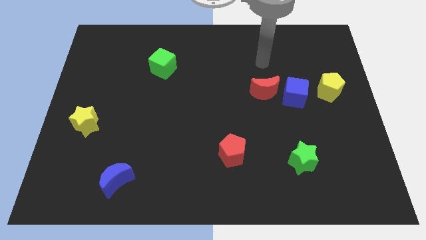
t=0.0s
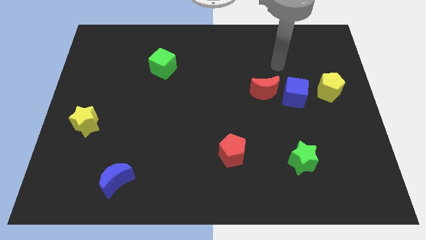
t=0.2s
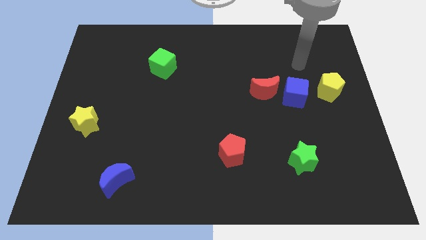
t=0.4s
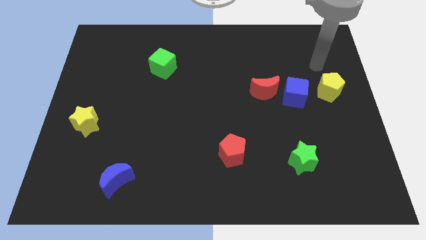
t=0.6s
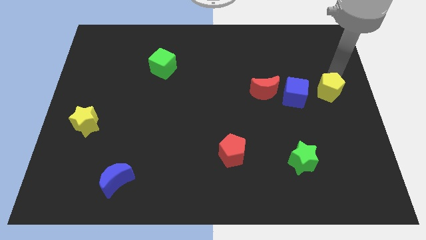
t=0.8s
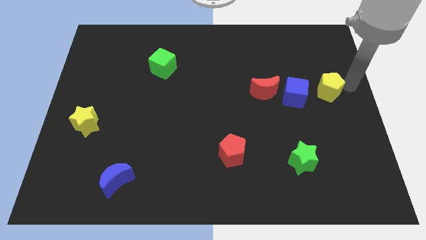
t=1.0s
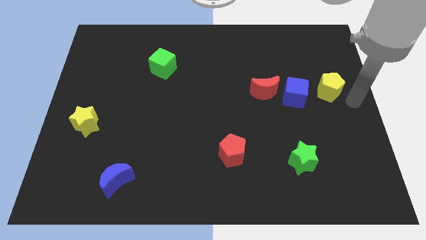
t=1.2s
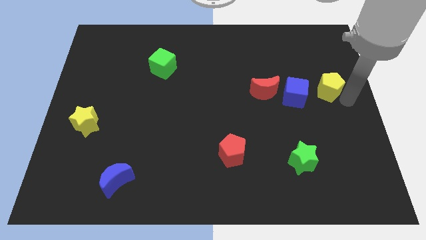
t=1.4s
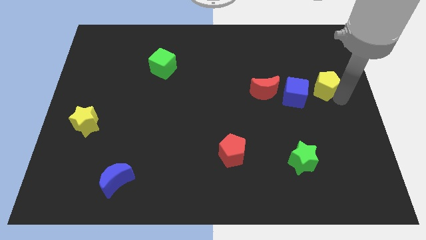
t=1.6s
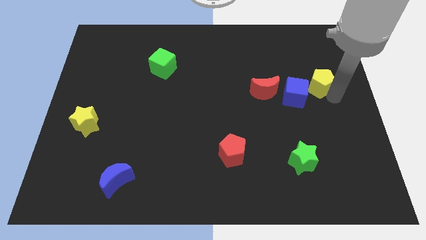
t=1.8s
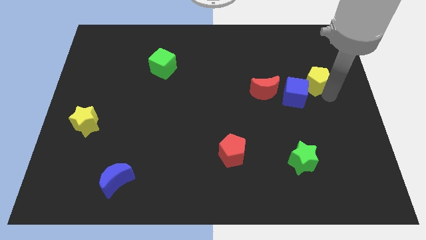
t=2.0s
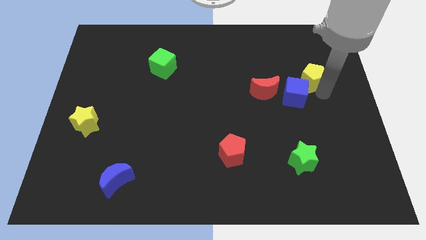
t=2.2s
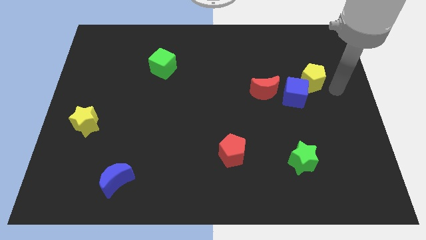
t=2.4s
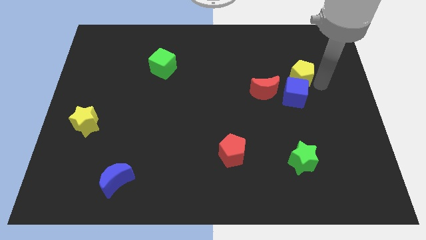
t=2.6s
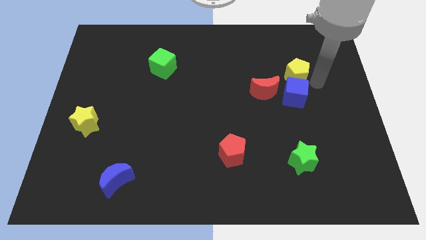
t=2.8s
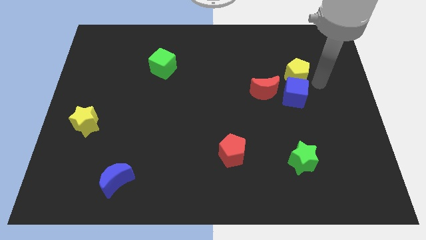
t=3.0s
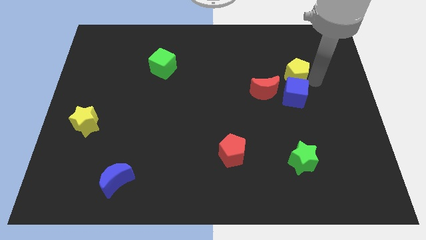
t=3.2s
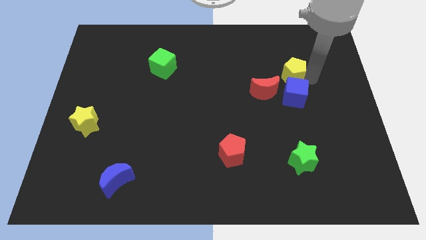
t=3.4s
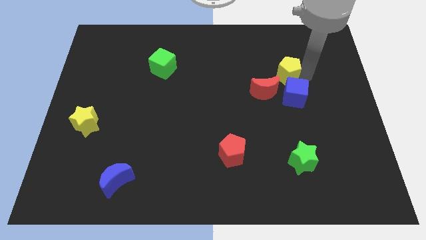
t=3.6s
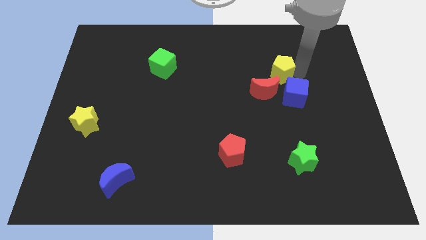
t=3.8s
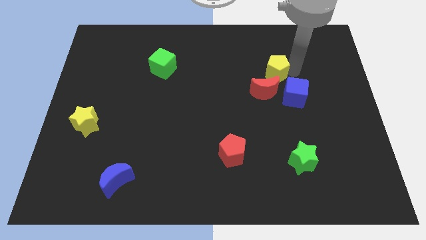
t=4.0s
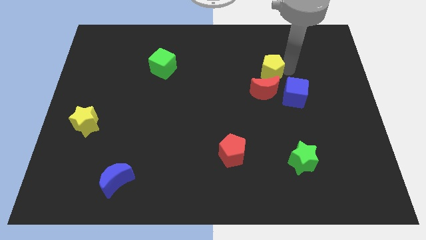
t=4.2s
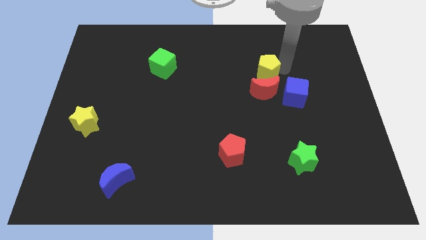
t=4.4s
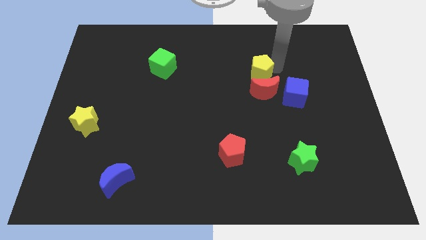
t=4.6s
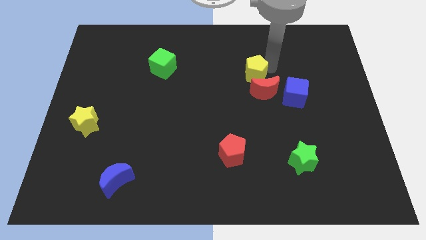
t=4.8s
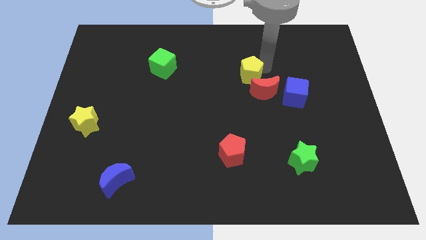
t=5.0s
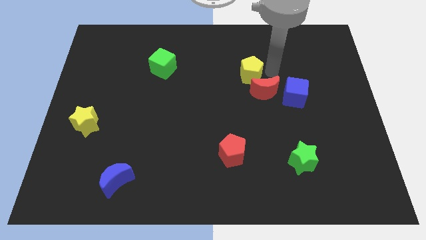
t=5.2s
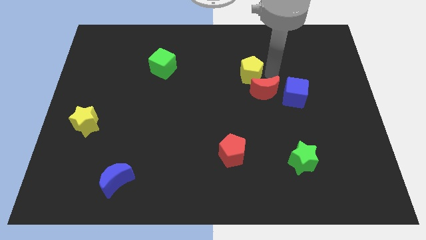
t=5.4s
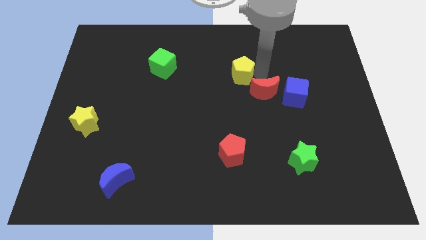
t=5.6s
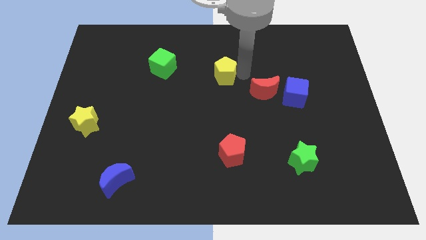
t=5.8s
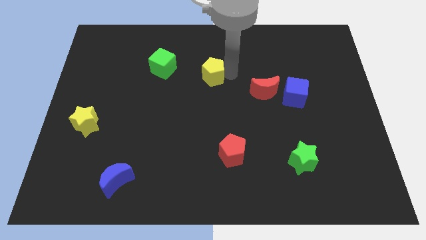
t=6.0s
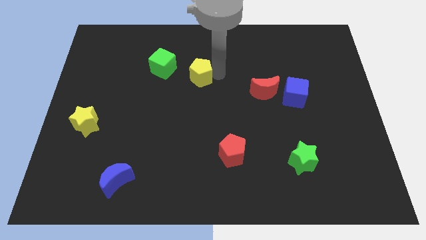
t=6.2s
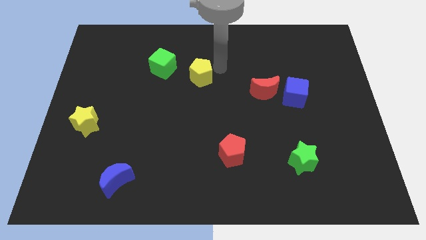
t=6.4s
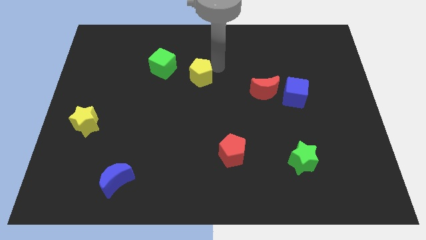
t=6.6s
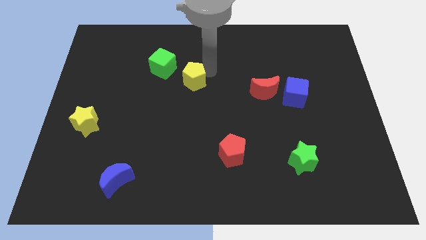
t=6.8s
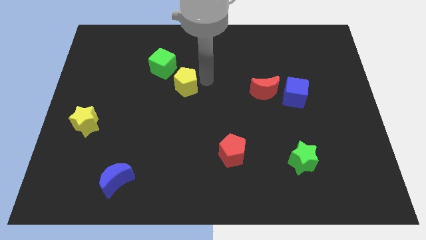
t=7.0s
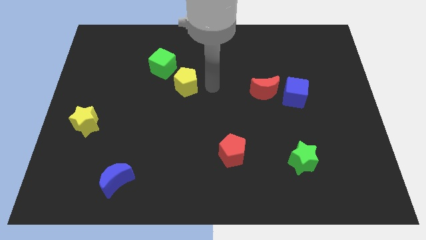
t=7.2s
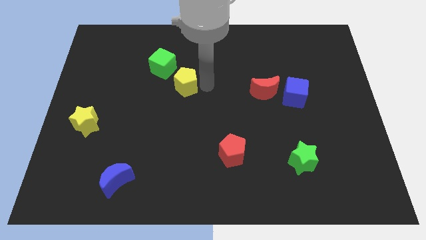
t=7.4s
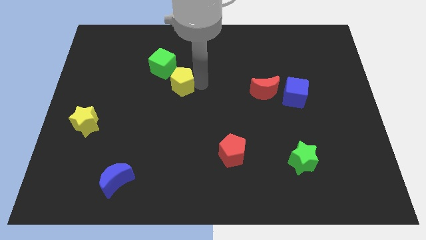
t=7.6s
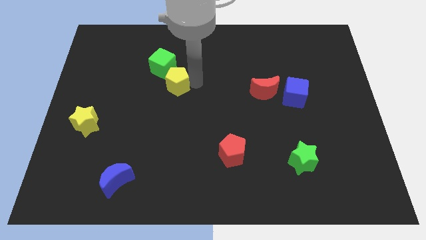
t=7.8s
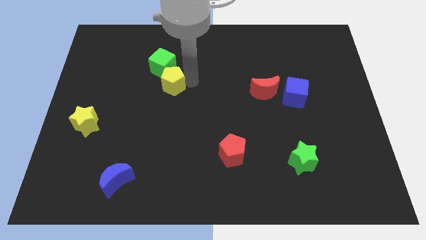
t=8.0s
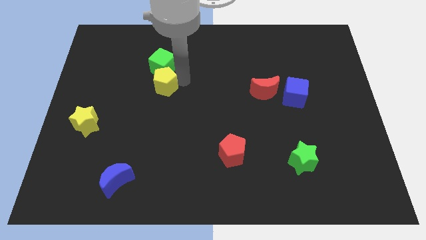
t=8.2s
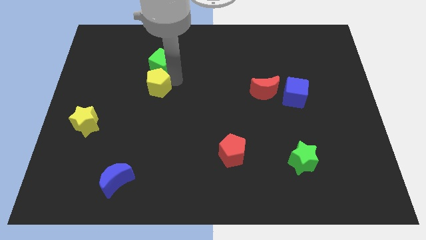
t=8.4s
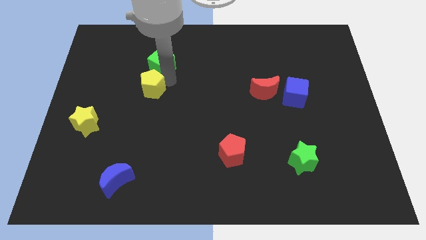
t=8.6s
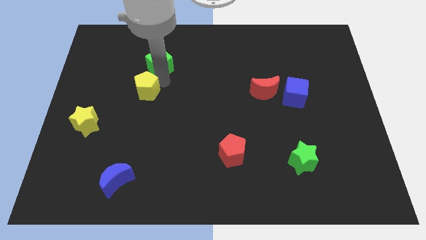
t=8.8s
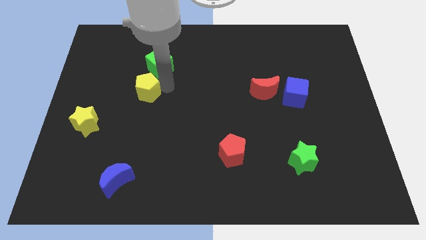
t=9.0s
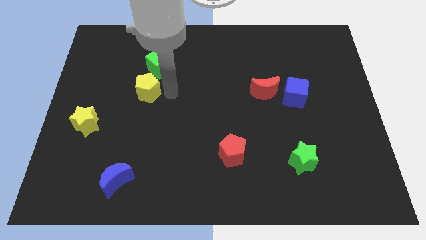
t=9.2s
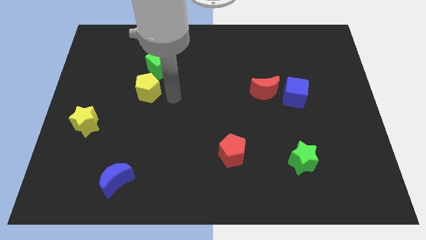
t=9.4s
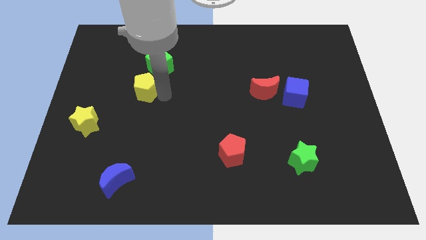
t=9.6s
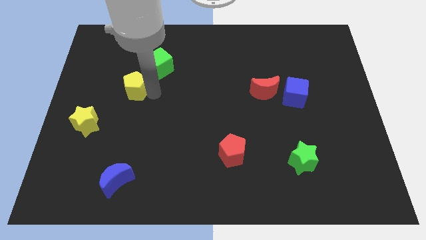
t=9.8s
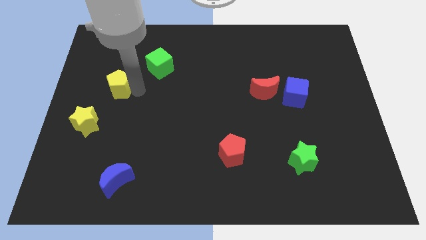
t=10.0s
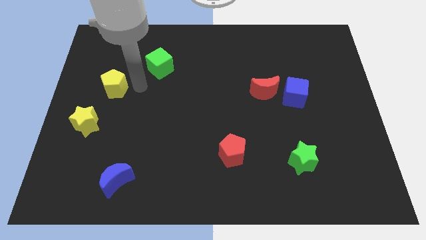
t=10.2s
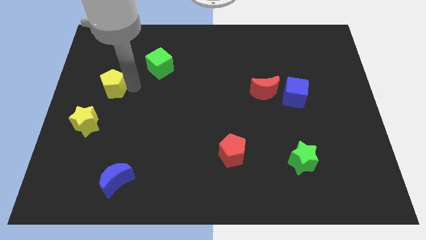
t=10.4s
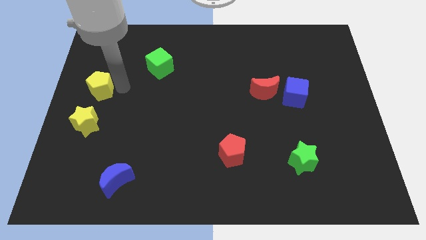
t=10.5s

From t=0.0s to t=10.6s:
move the yellow pentagon to the left side

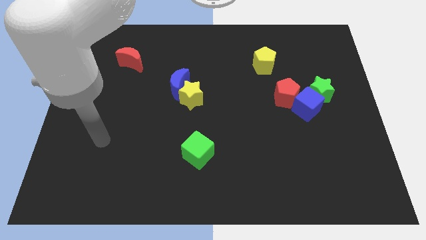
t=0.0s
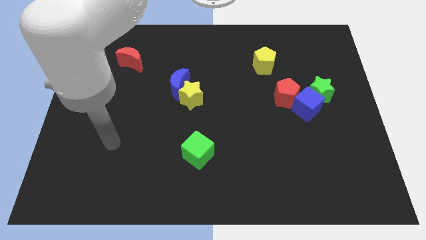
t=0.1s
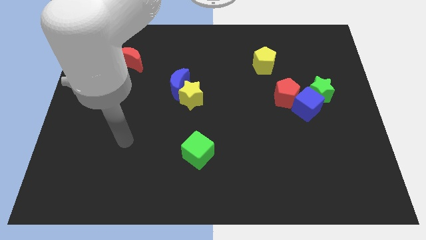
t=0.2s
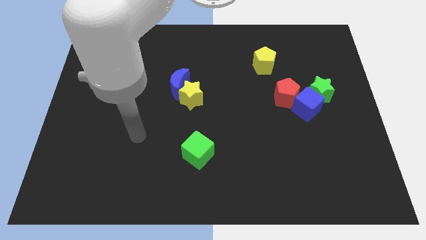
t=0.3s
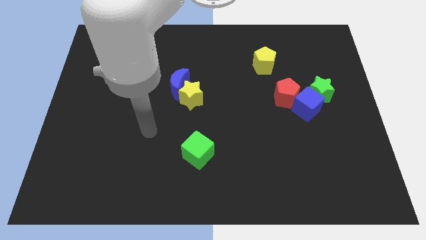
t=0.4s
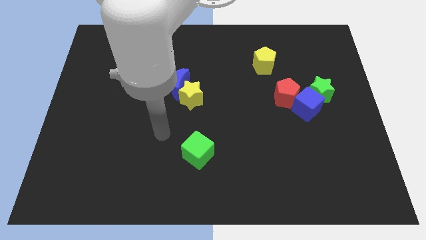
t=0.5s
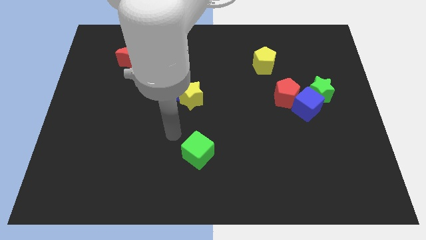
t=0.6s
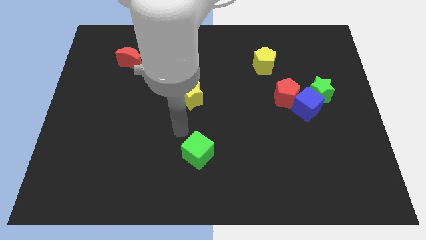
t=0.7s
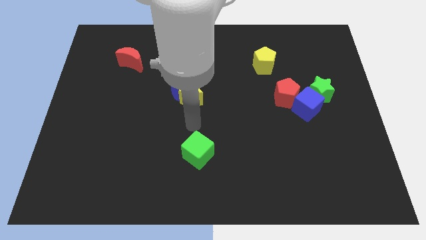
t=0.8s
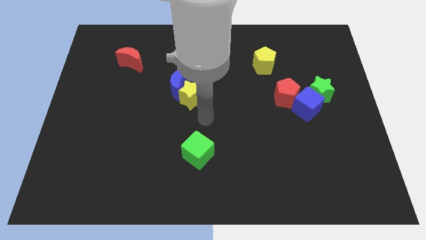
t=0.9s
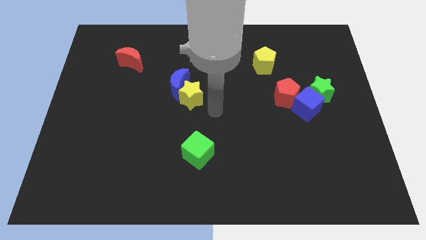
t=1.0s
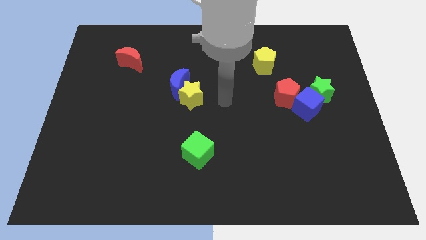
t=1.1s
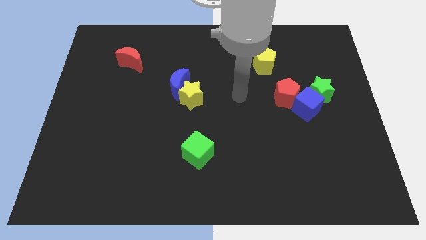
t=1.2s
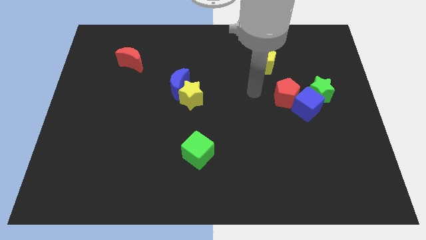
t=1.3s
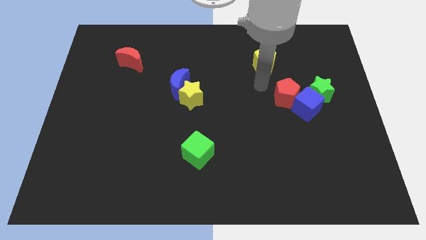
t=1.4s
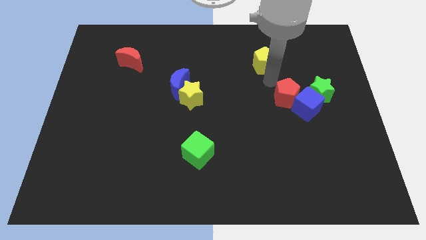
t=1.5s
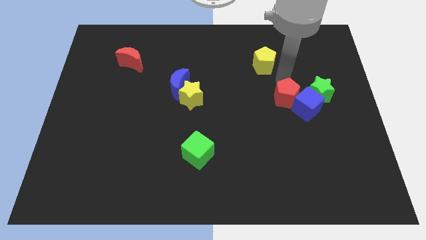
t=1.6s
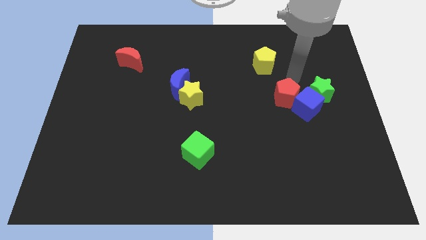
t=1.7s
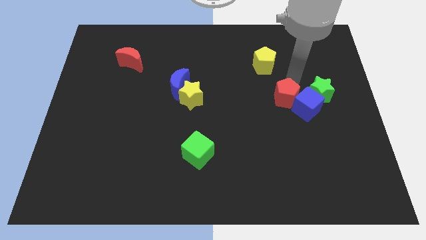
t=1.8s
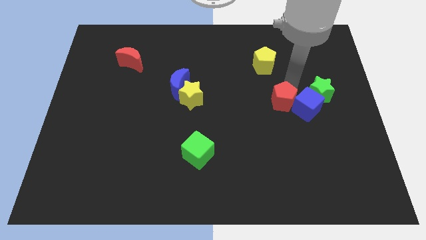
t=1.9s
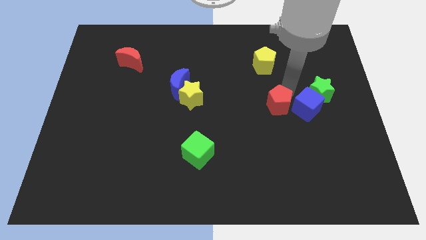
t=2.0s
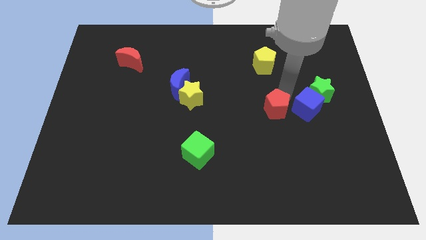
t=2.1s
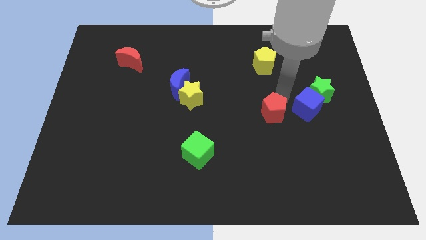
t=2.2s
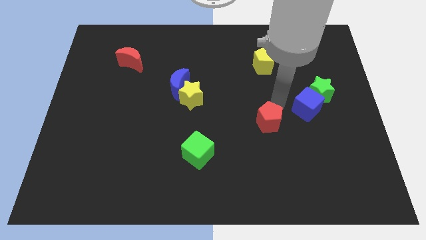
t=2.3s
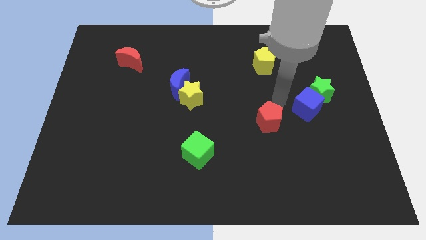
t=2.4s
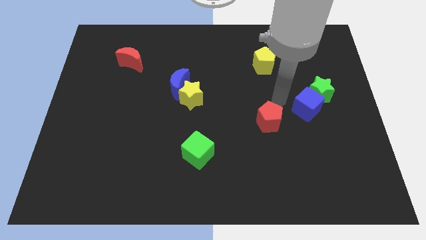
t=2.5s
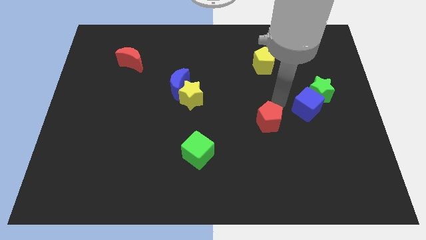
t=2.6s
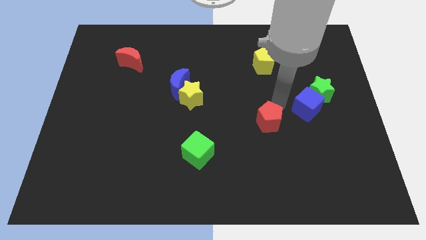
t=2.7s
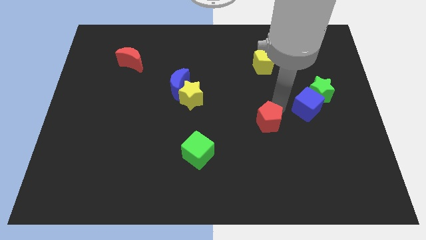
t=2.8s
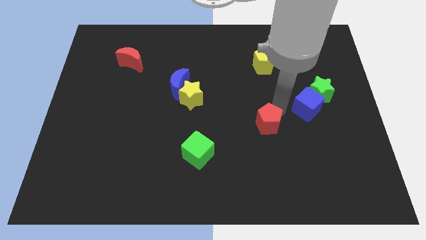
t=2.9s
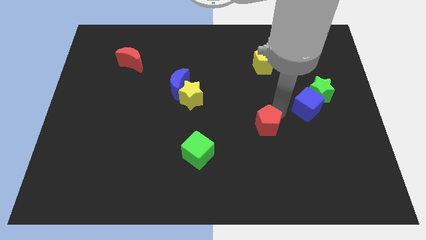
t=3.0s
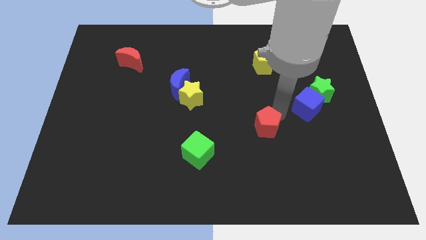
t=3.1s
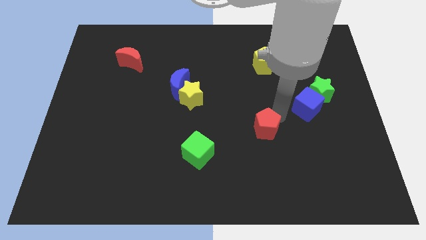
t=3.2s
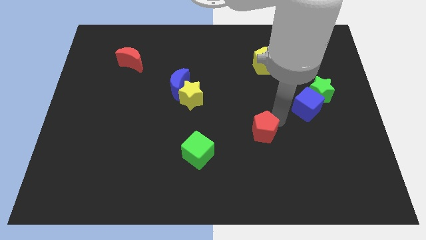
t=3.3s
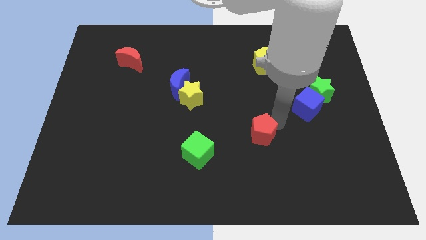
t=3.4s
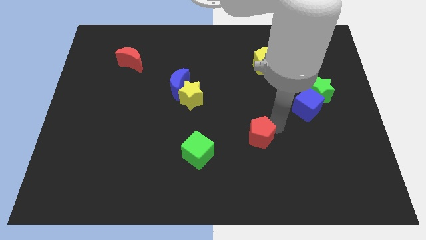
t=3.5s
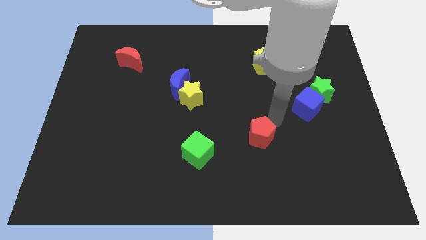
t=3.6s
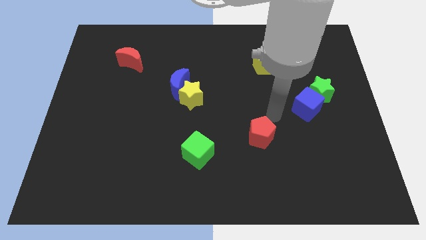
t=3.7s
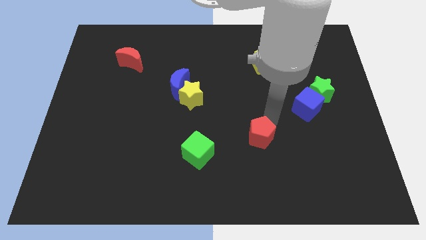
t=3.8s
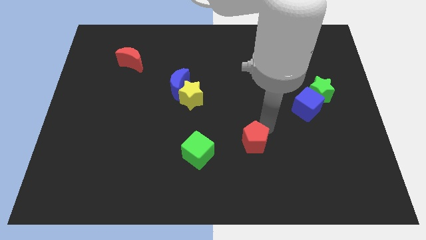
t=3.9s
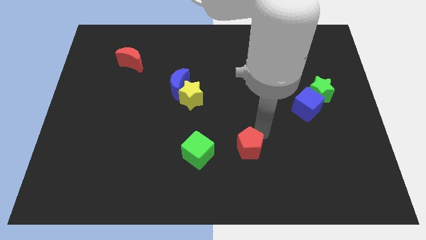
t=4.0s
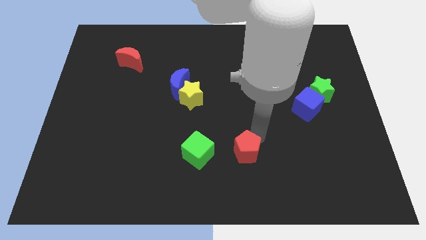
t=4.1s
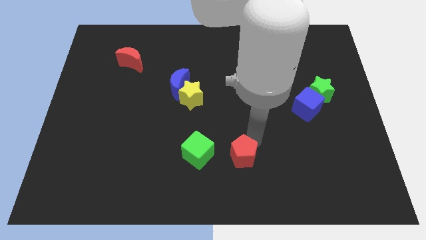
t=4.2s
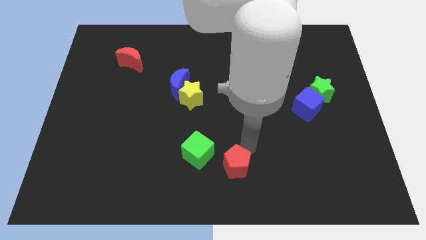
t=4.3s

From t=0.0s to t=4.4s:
move the red pentagon to the bottom
